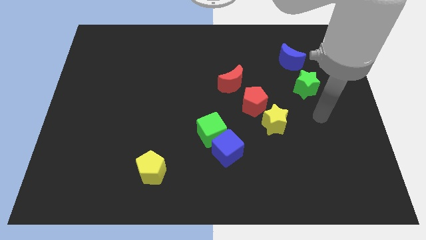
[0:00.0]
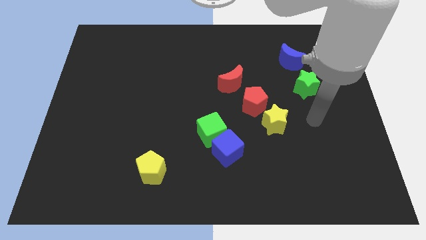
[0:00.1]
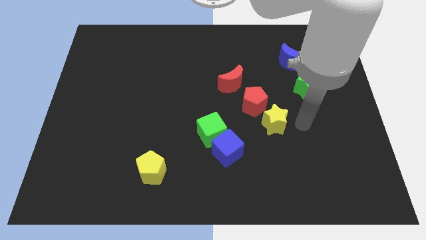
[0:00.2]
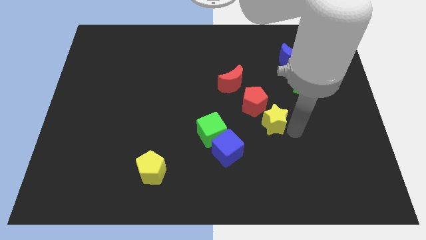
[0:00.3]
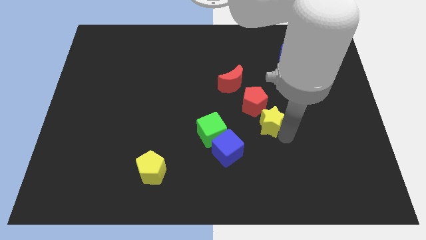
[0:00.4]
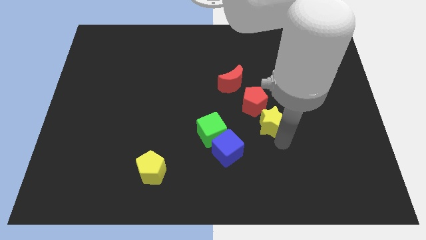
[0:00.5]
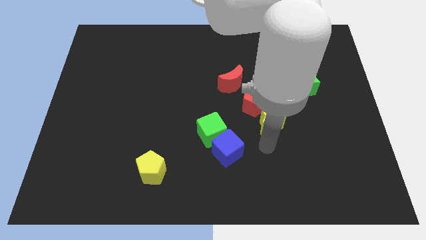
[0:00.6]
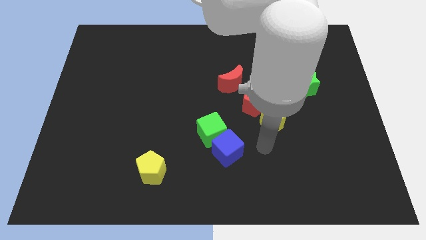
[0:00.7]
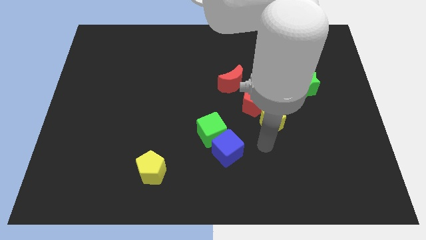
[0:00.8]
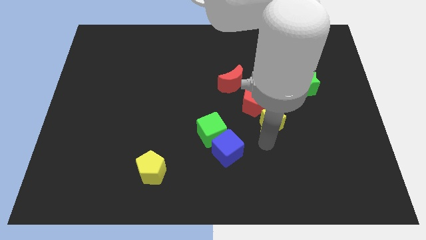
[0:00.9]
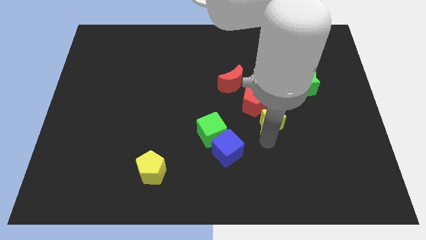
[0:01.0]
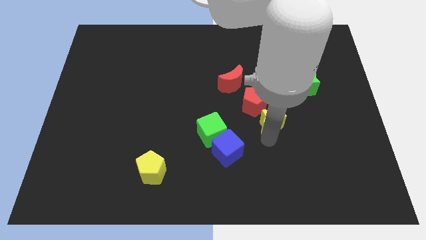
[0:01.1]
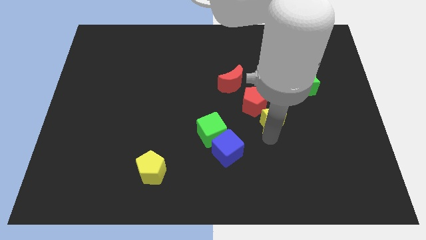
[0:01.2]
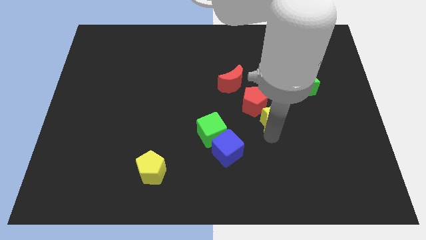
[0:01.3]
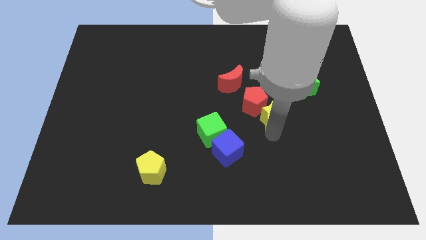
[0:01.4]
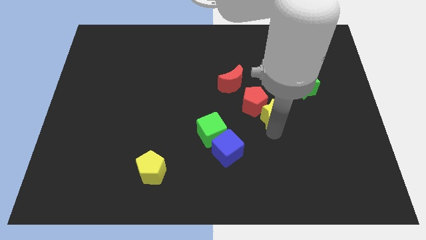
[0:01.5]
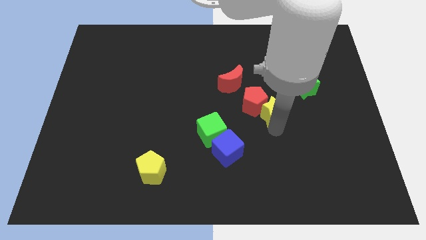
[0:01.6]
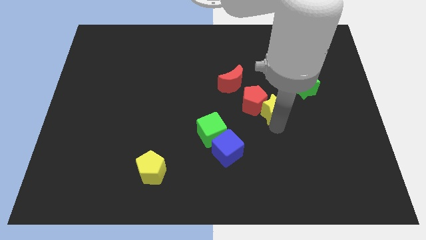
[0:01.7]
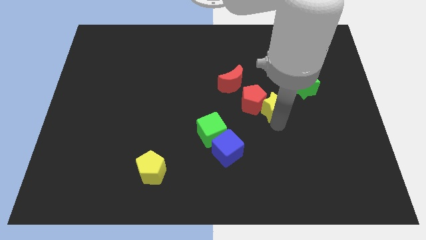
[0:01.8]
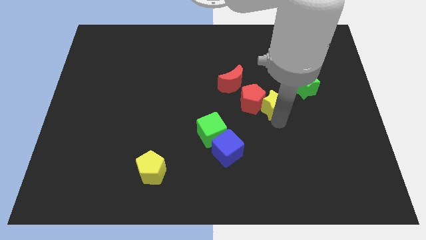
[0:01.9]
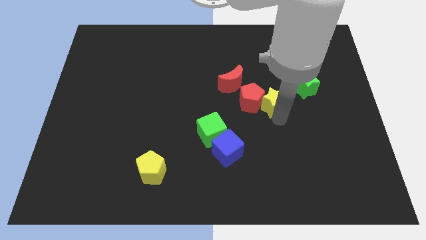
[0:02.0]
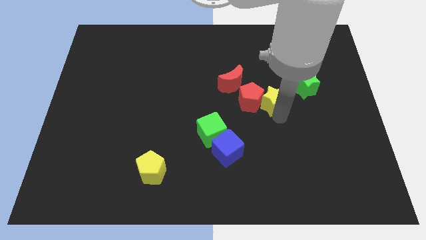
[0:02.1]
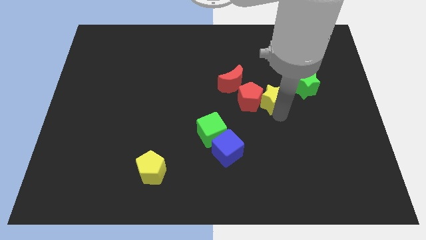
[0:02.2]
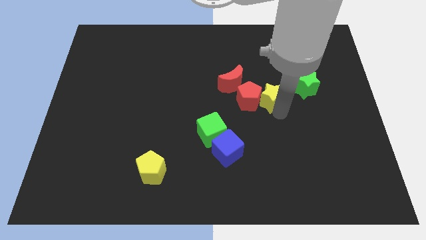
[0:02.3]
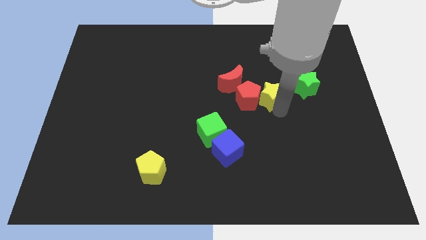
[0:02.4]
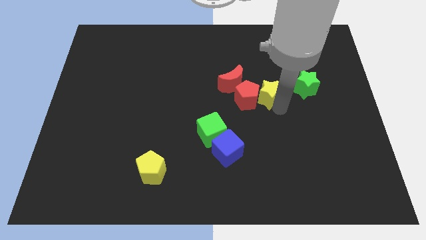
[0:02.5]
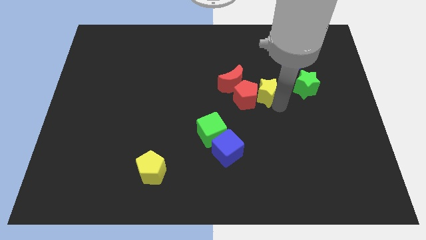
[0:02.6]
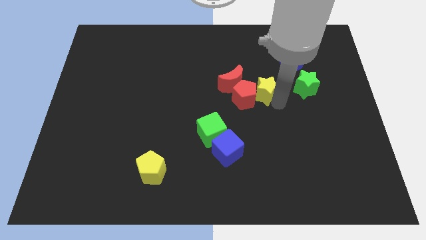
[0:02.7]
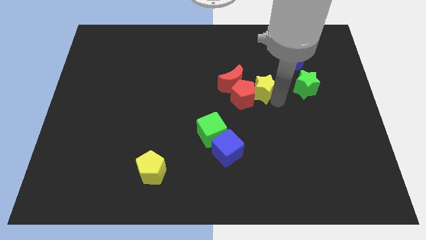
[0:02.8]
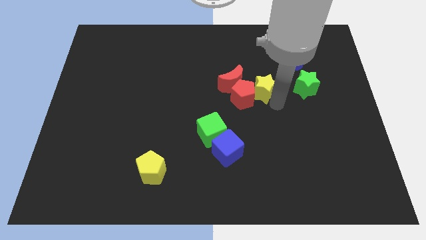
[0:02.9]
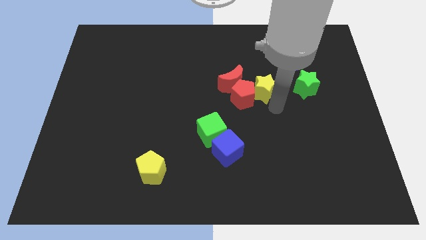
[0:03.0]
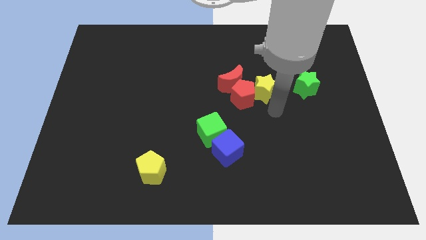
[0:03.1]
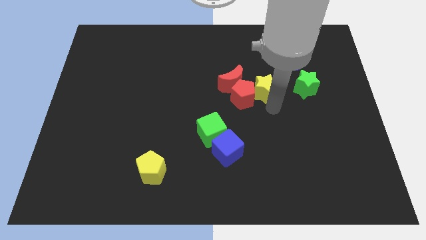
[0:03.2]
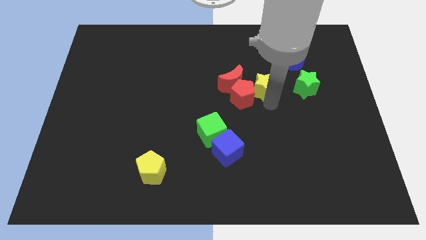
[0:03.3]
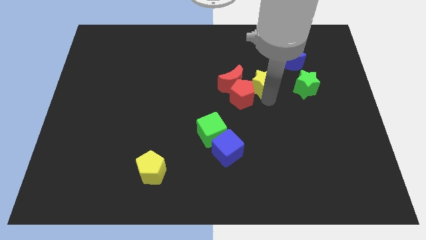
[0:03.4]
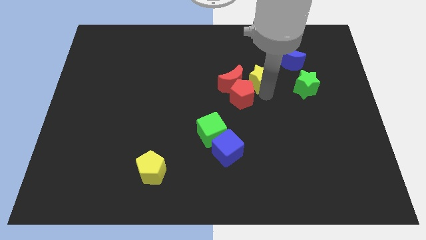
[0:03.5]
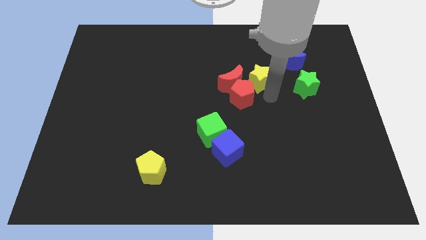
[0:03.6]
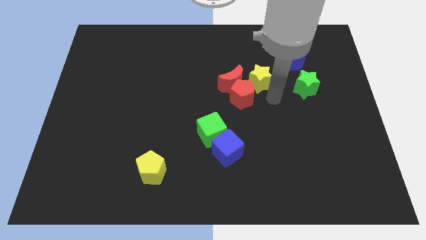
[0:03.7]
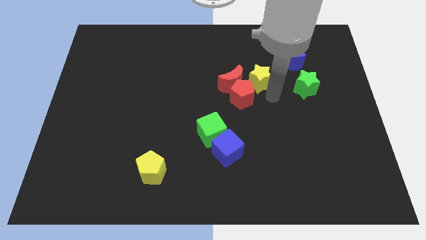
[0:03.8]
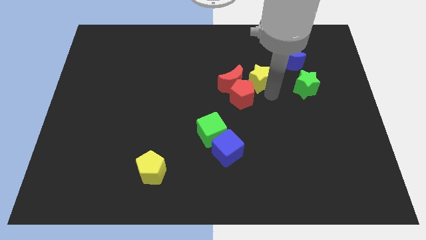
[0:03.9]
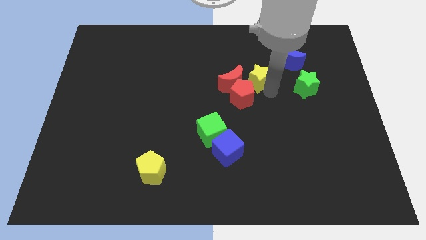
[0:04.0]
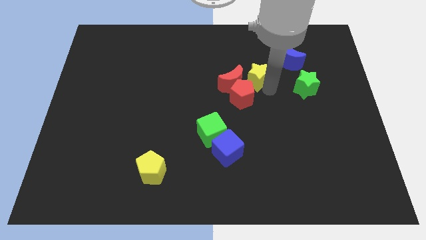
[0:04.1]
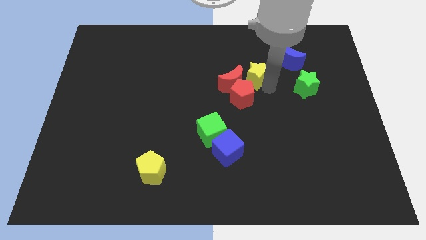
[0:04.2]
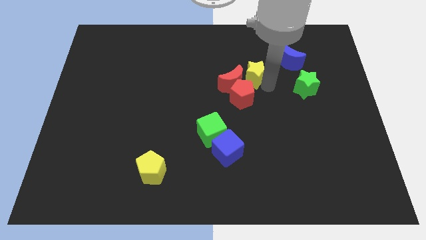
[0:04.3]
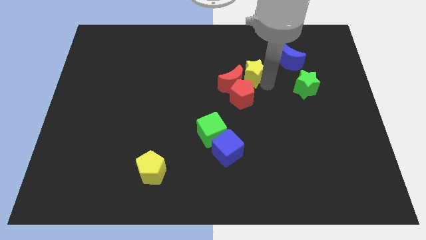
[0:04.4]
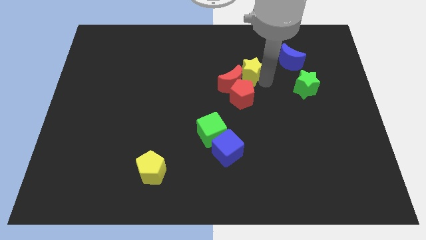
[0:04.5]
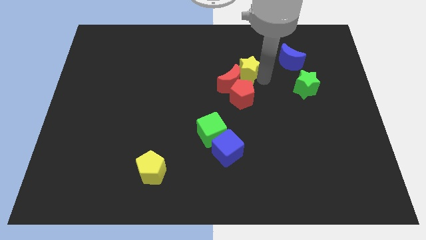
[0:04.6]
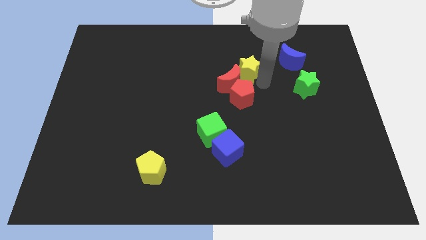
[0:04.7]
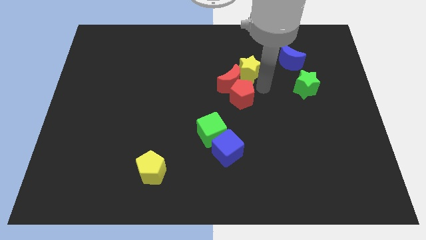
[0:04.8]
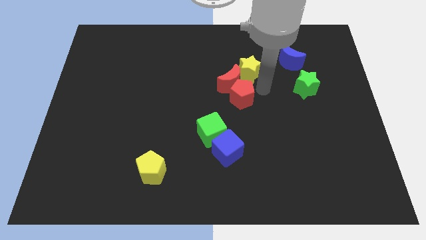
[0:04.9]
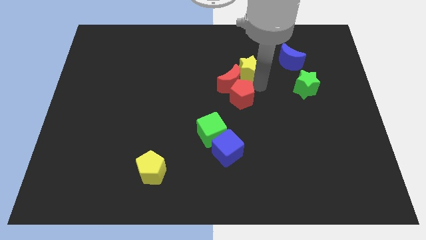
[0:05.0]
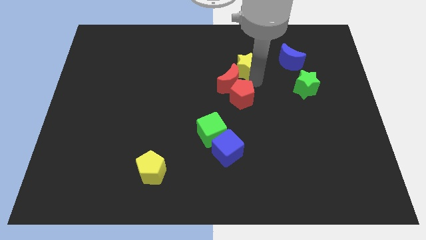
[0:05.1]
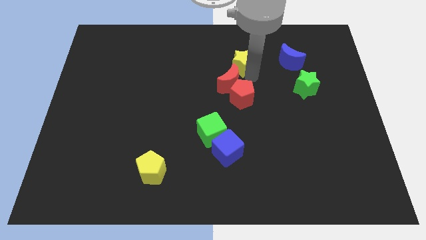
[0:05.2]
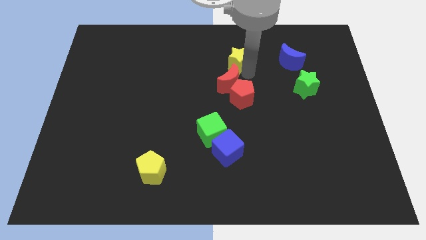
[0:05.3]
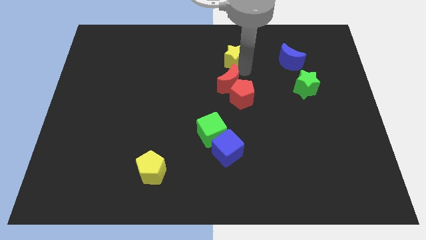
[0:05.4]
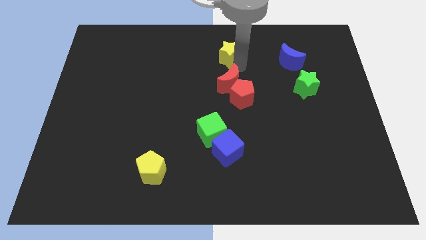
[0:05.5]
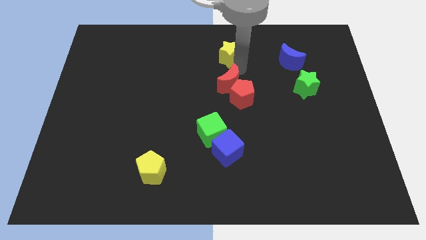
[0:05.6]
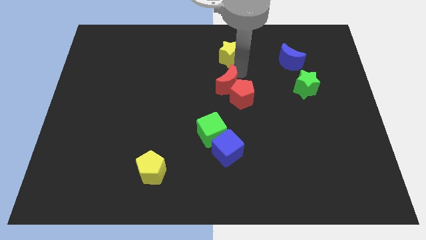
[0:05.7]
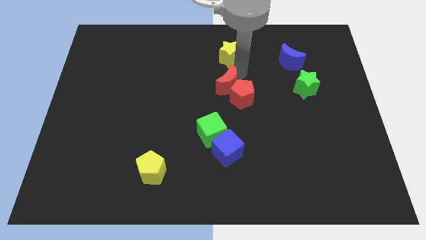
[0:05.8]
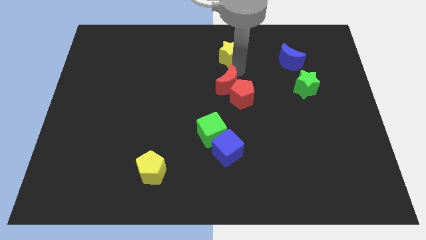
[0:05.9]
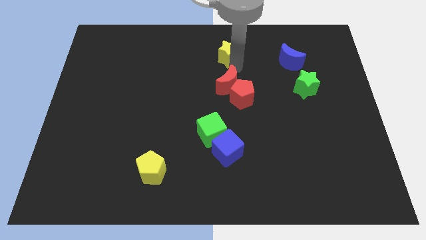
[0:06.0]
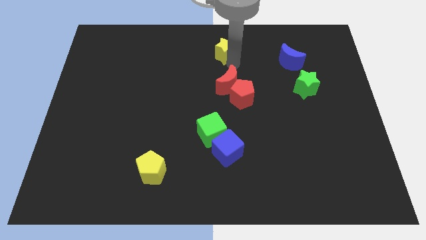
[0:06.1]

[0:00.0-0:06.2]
slide the yellow star to the top

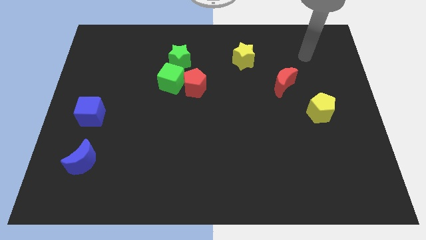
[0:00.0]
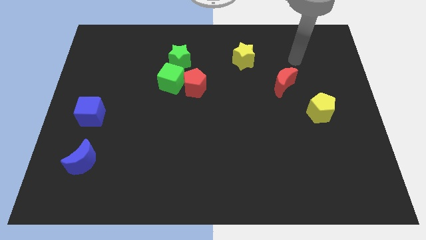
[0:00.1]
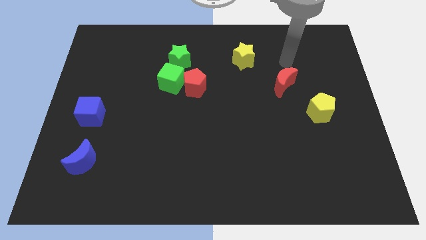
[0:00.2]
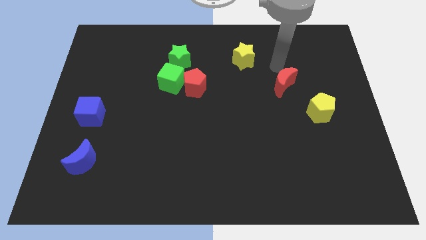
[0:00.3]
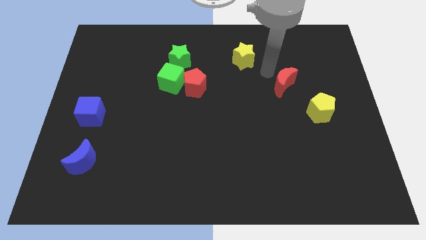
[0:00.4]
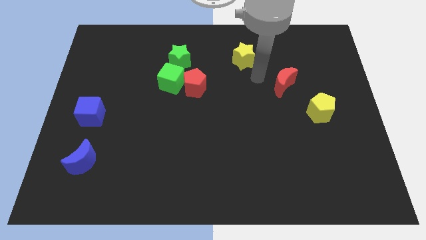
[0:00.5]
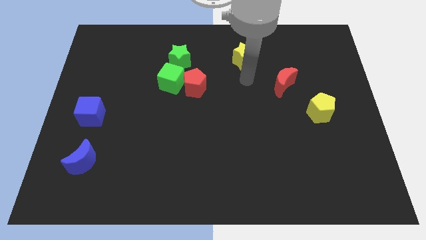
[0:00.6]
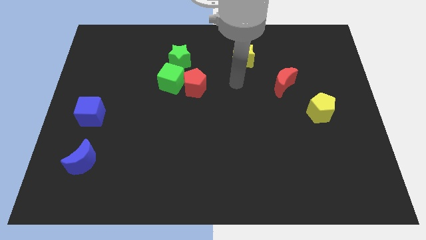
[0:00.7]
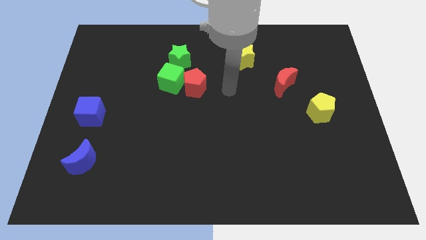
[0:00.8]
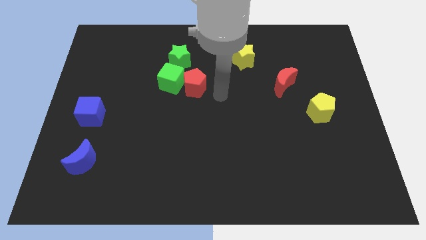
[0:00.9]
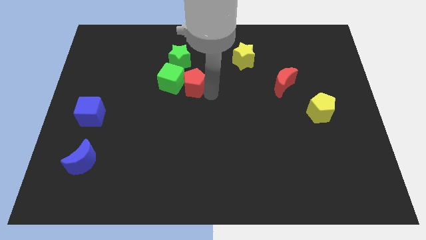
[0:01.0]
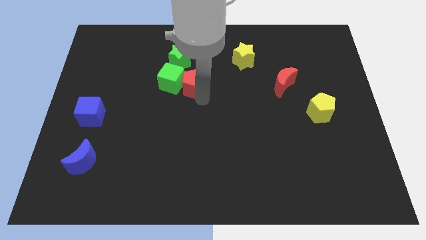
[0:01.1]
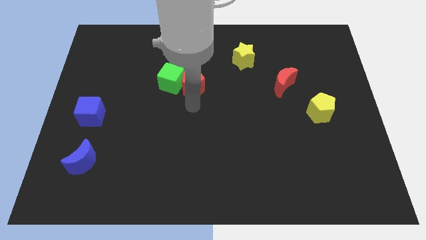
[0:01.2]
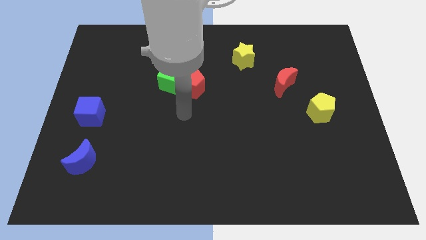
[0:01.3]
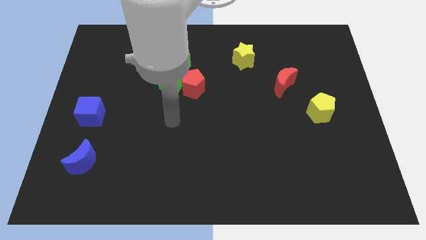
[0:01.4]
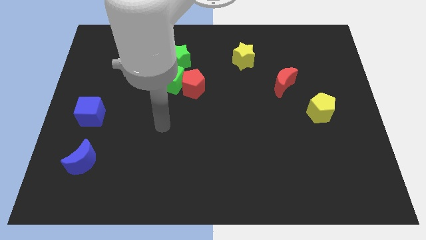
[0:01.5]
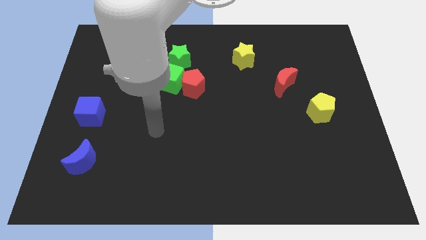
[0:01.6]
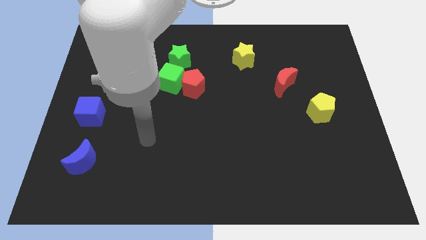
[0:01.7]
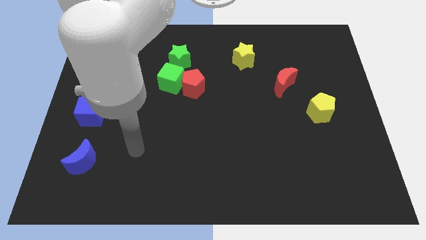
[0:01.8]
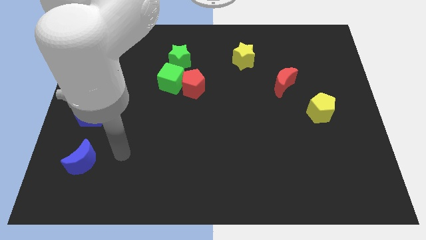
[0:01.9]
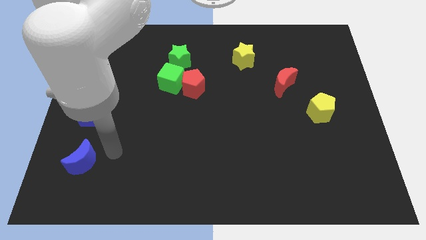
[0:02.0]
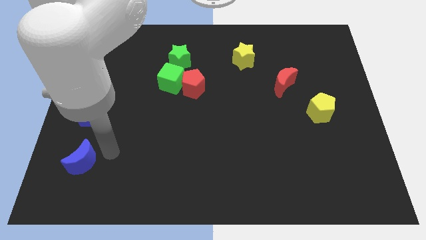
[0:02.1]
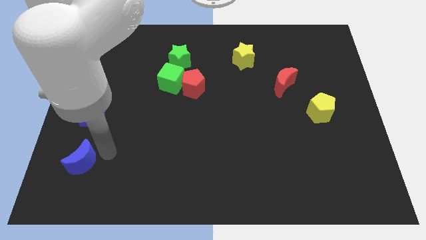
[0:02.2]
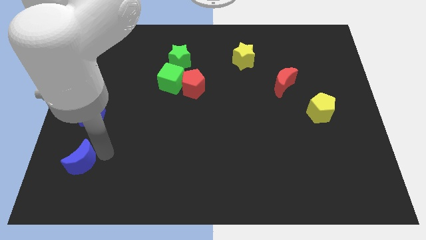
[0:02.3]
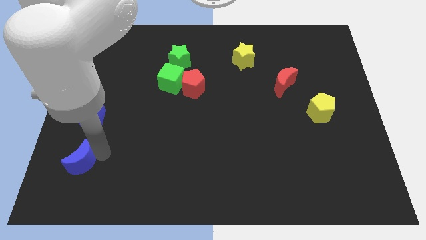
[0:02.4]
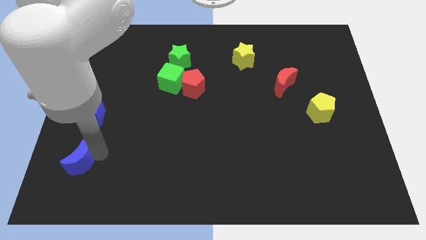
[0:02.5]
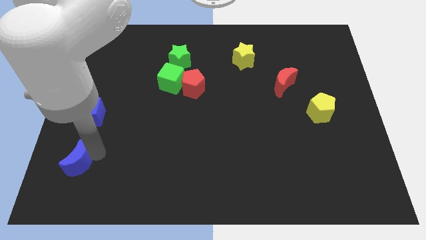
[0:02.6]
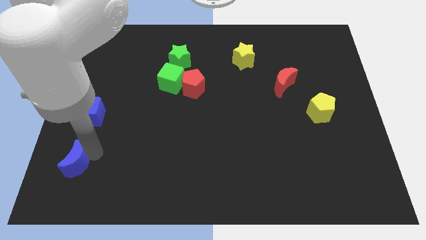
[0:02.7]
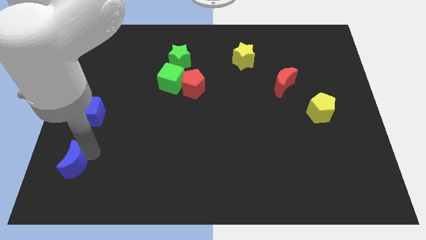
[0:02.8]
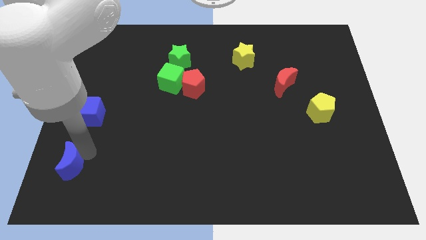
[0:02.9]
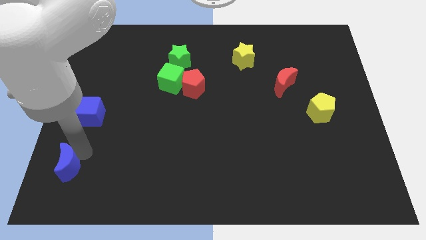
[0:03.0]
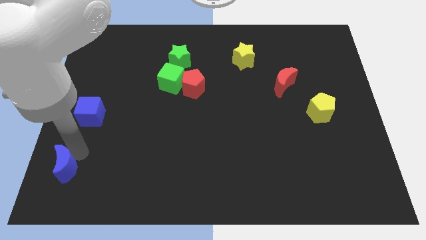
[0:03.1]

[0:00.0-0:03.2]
move the blue moon to the bottom left of the board
